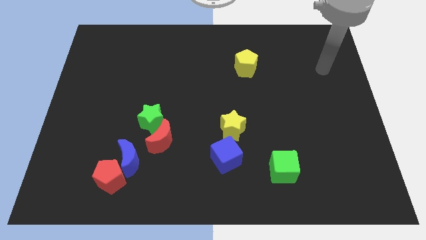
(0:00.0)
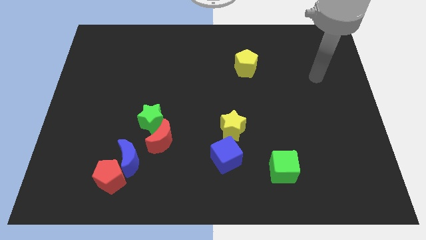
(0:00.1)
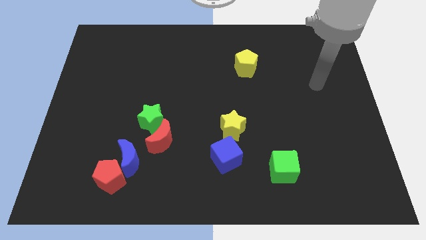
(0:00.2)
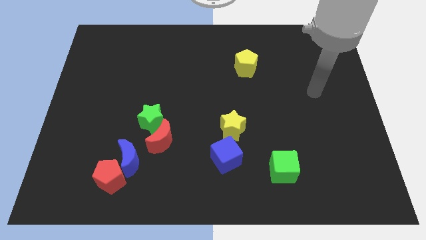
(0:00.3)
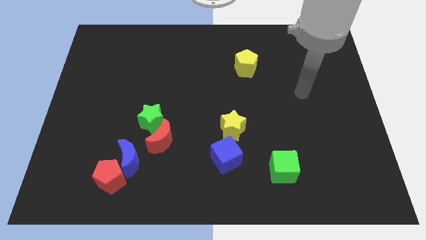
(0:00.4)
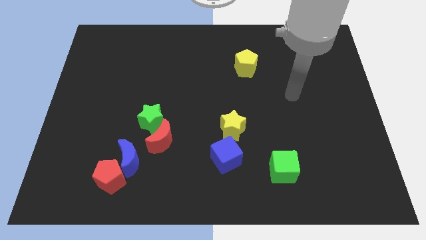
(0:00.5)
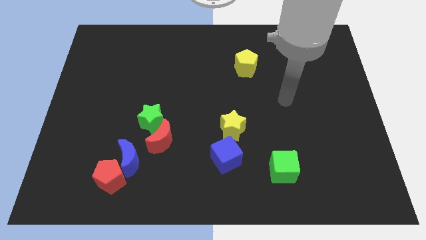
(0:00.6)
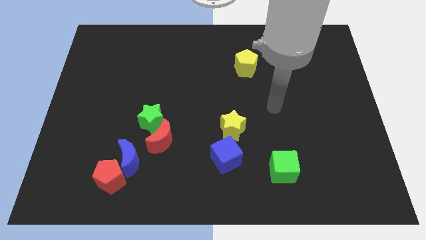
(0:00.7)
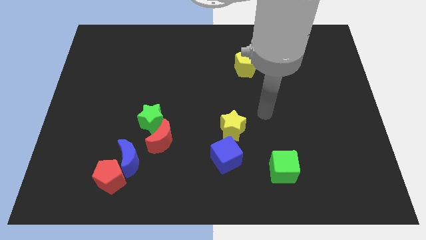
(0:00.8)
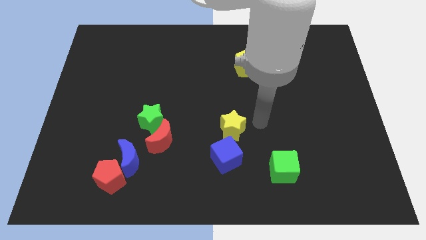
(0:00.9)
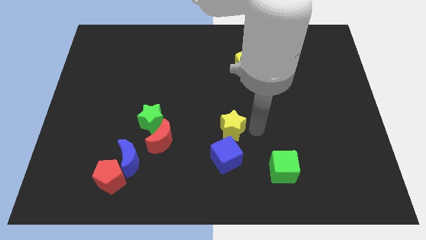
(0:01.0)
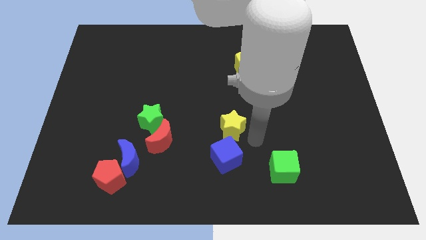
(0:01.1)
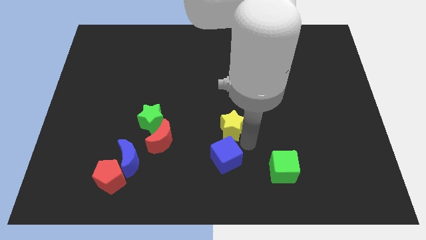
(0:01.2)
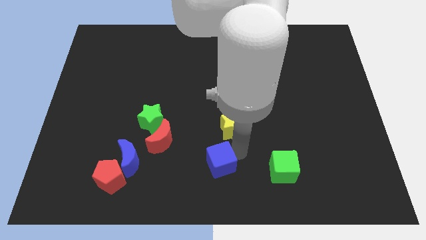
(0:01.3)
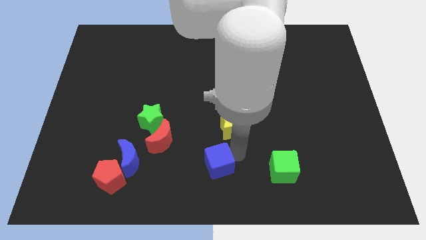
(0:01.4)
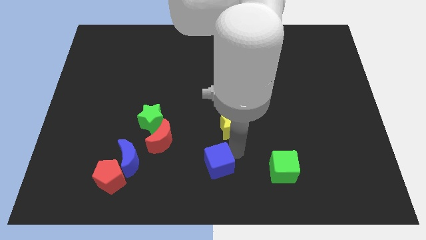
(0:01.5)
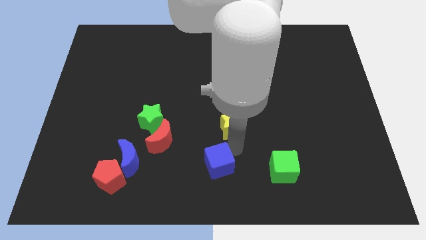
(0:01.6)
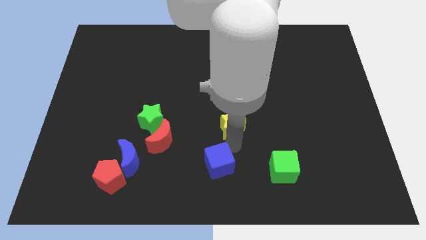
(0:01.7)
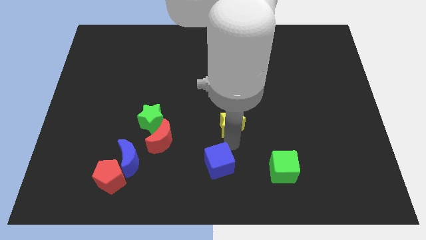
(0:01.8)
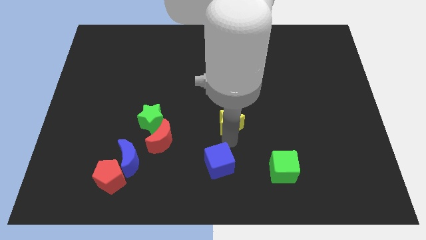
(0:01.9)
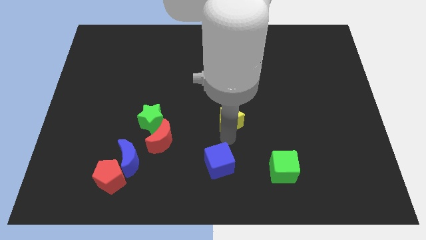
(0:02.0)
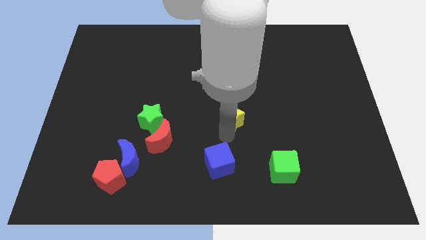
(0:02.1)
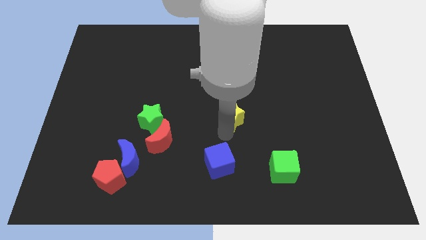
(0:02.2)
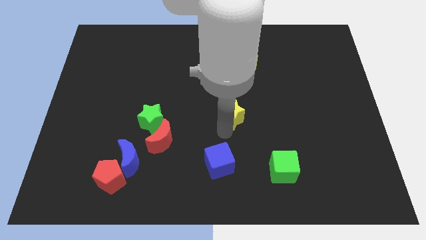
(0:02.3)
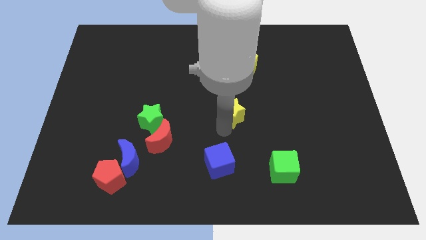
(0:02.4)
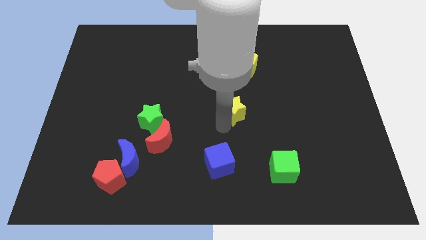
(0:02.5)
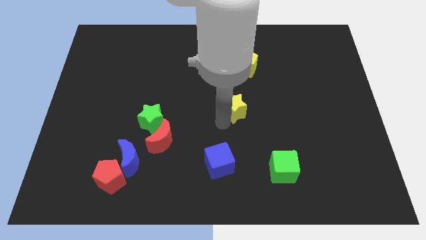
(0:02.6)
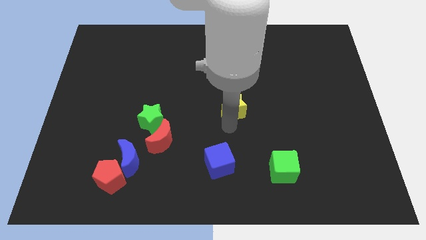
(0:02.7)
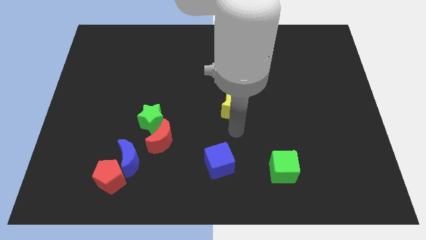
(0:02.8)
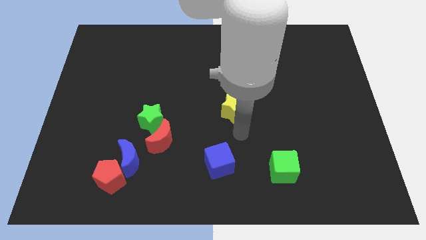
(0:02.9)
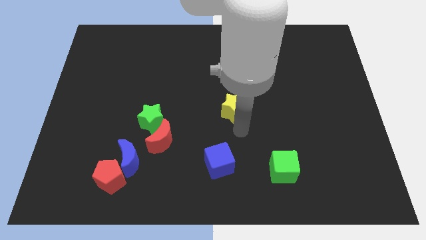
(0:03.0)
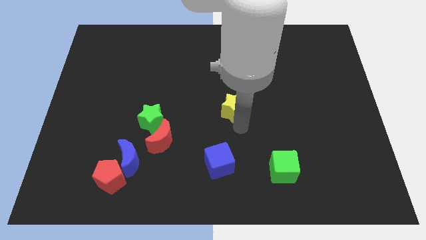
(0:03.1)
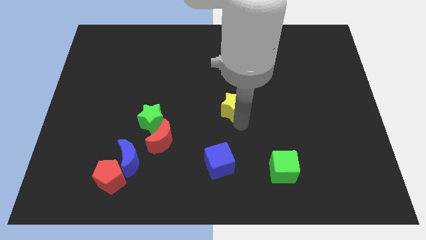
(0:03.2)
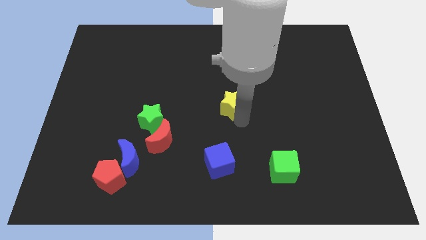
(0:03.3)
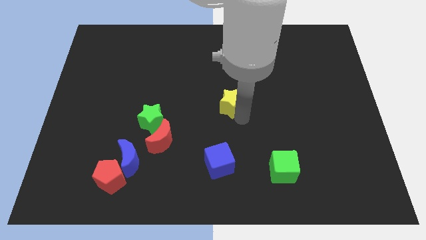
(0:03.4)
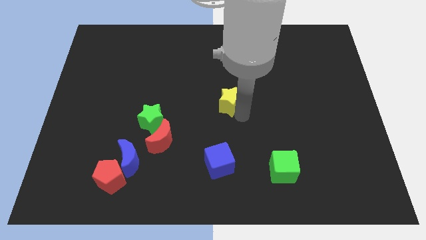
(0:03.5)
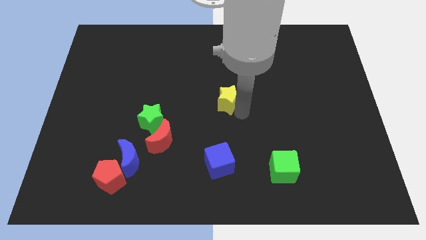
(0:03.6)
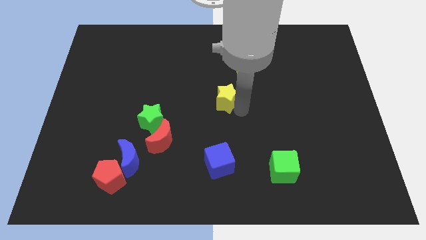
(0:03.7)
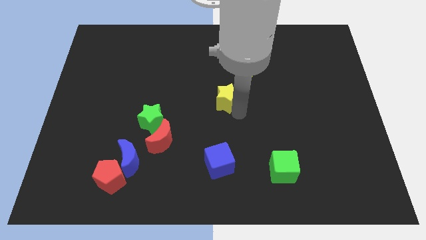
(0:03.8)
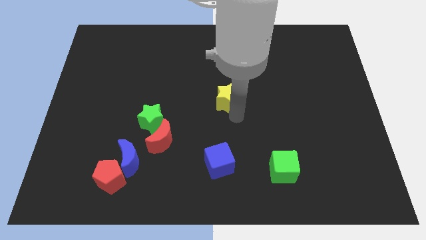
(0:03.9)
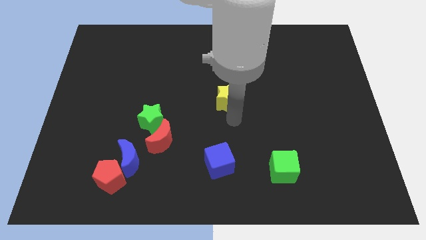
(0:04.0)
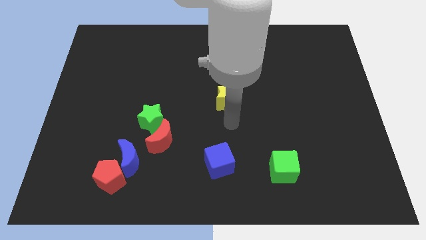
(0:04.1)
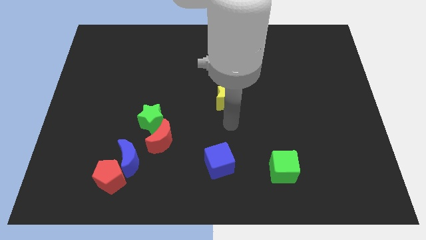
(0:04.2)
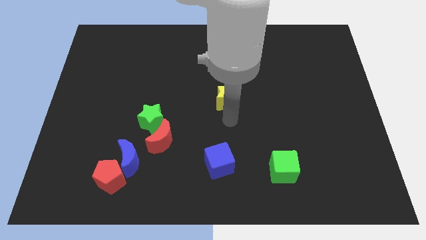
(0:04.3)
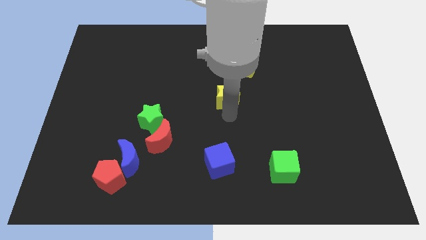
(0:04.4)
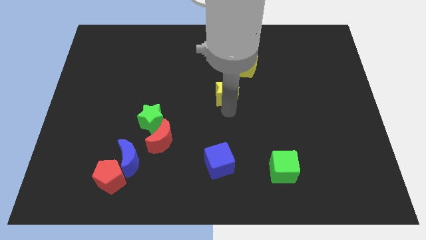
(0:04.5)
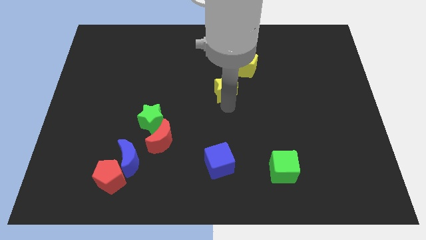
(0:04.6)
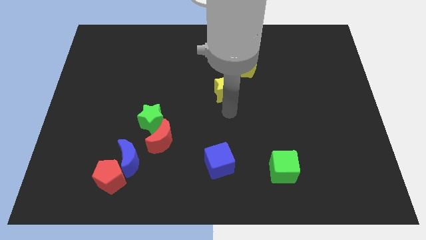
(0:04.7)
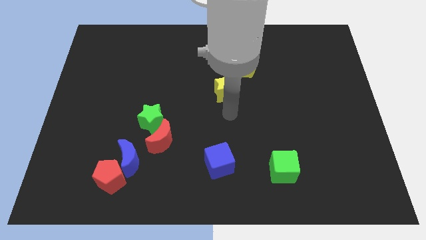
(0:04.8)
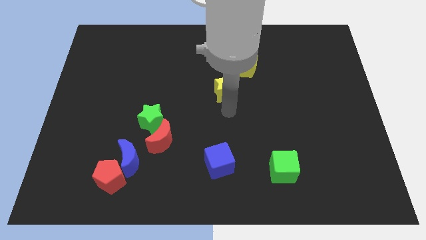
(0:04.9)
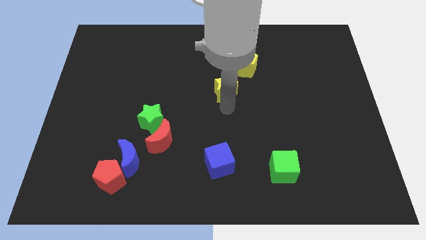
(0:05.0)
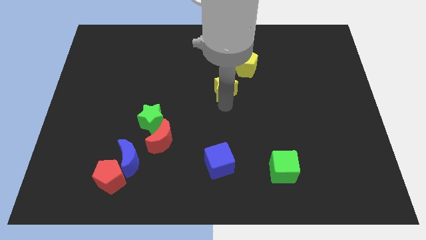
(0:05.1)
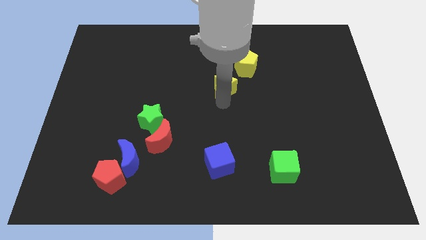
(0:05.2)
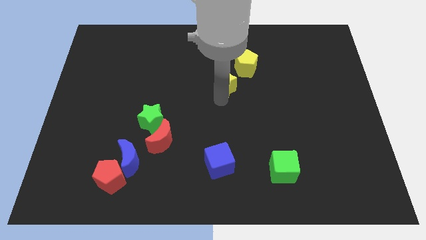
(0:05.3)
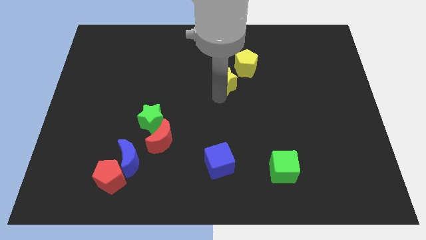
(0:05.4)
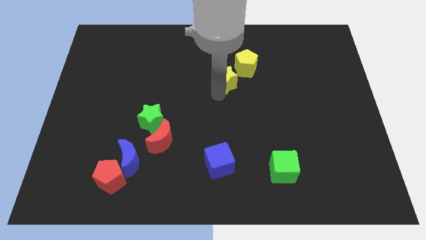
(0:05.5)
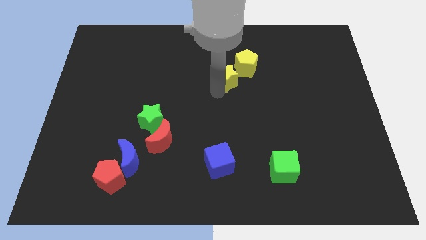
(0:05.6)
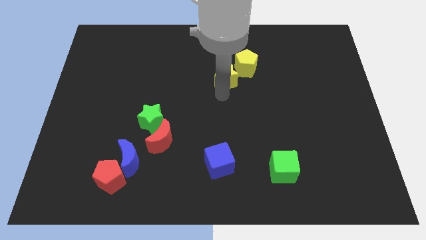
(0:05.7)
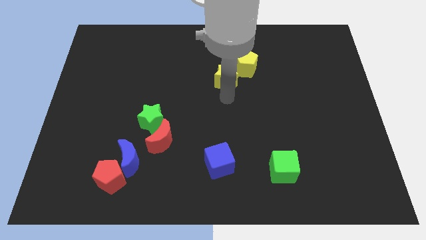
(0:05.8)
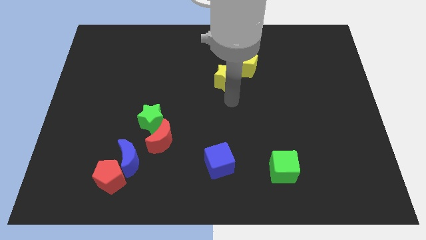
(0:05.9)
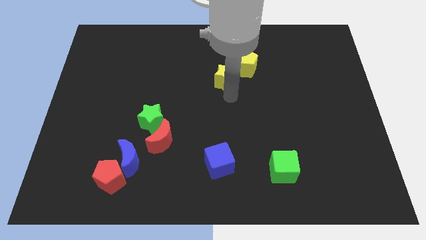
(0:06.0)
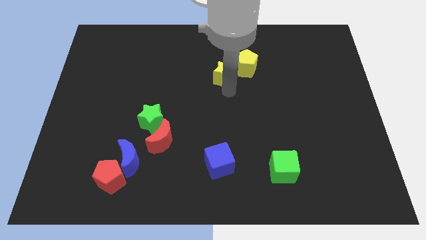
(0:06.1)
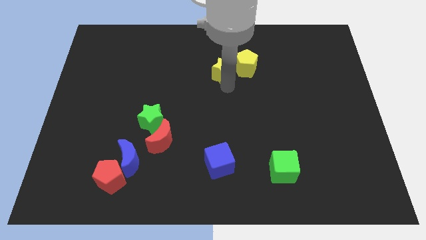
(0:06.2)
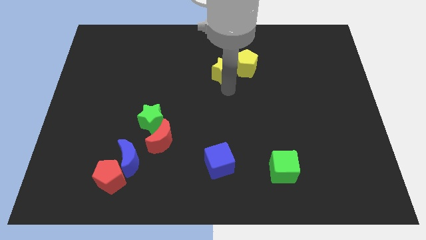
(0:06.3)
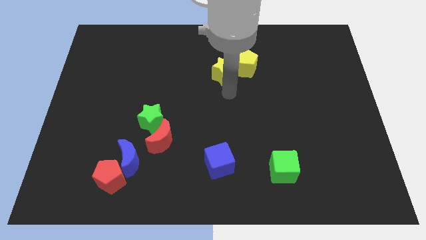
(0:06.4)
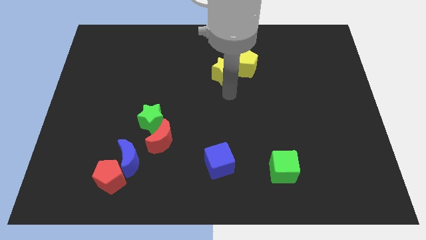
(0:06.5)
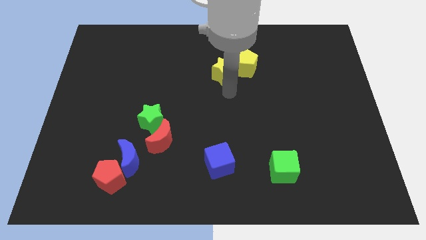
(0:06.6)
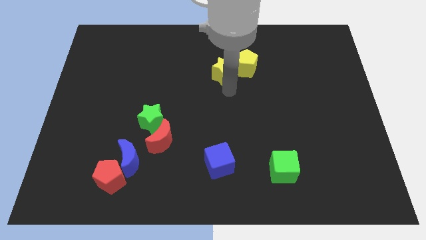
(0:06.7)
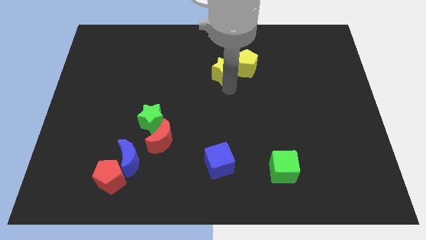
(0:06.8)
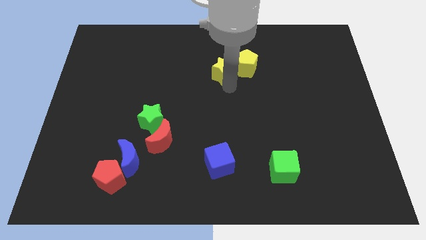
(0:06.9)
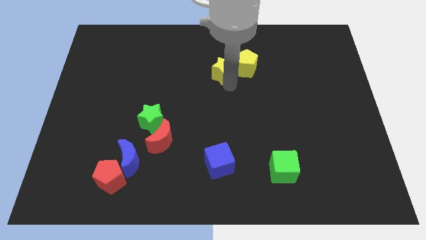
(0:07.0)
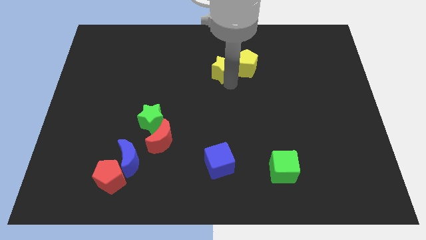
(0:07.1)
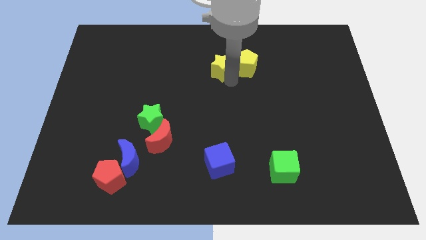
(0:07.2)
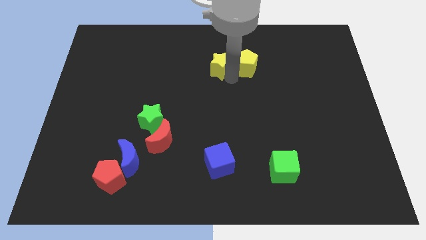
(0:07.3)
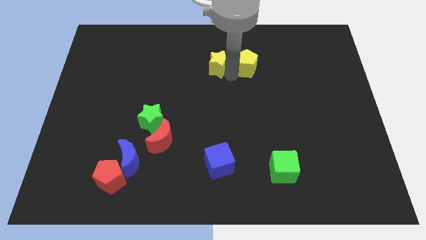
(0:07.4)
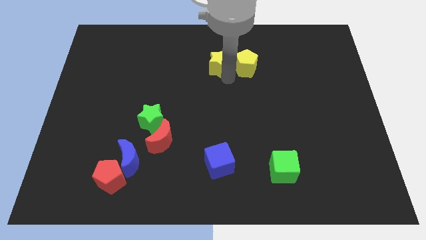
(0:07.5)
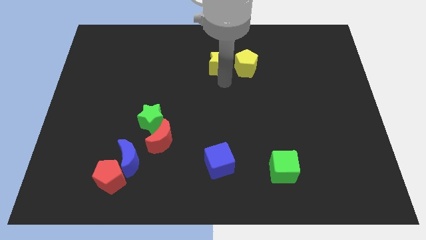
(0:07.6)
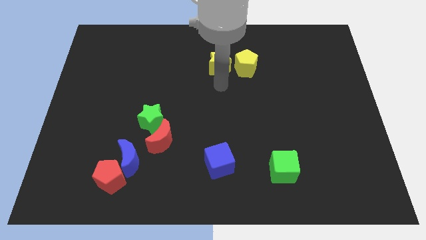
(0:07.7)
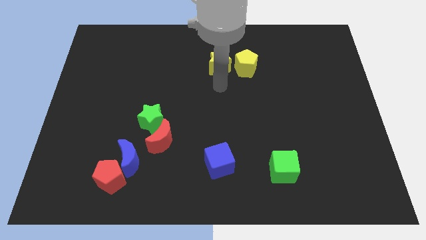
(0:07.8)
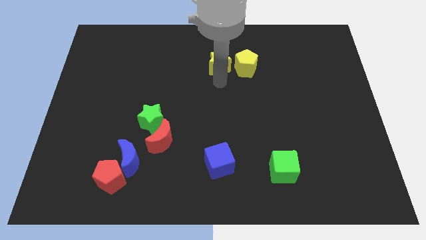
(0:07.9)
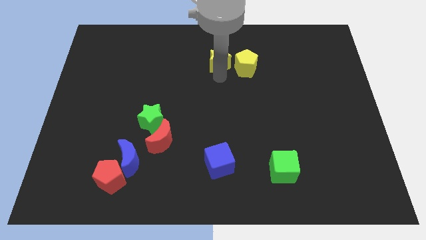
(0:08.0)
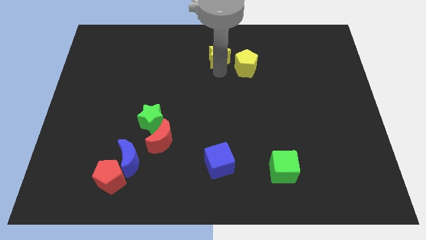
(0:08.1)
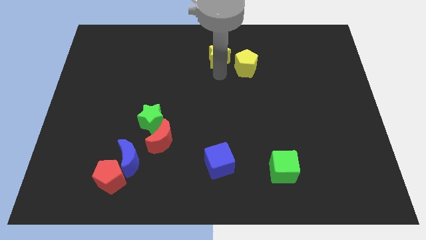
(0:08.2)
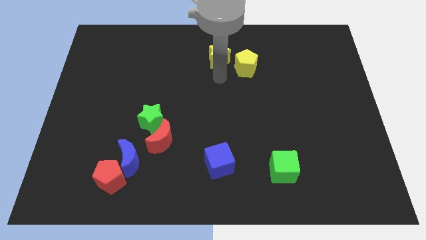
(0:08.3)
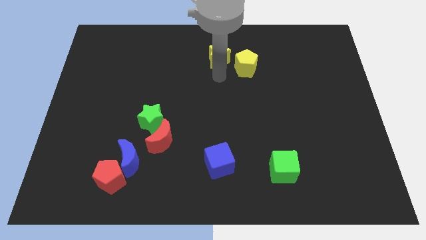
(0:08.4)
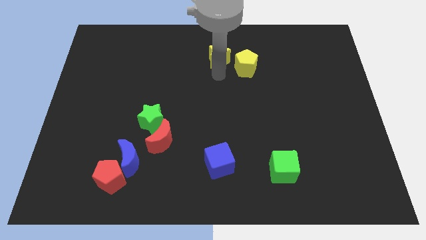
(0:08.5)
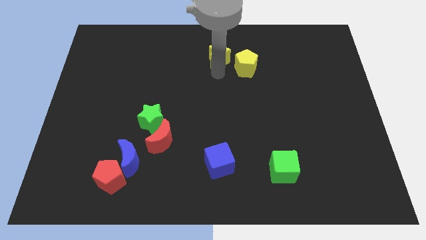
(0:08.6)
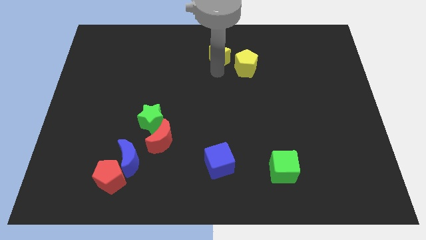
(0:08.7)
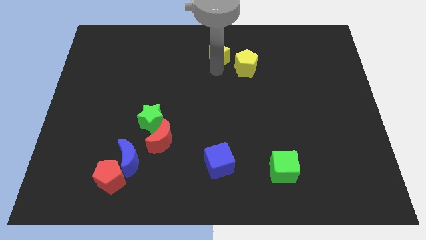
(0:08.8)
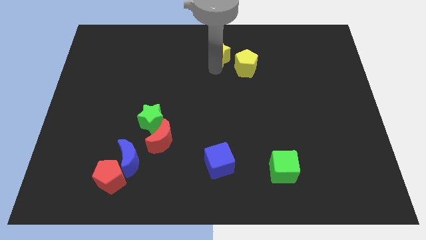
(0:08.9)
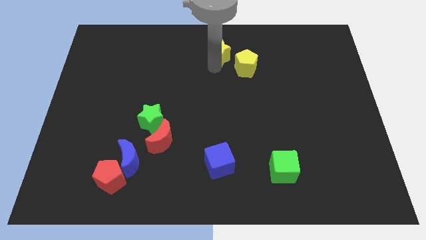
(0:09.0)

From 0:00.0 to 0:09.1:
slide the yellow star to the top side
